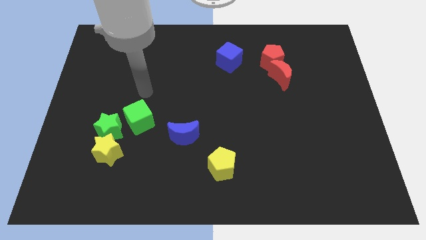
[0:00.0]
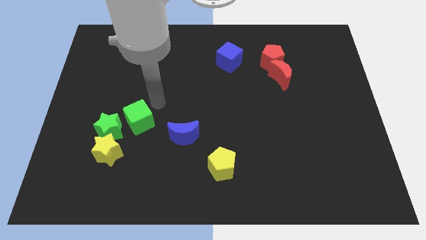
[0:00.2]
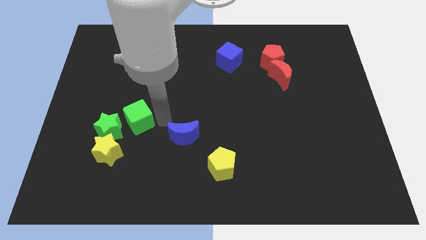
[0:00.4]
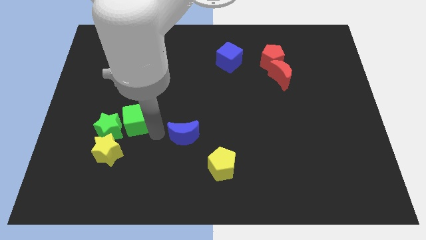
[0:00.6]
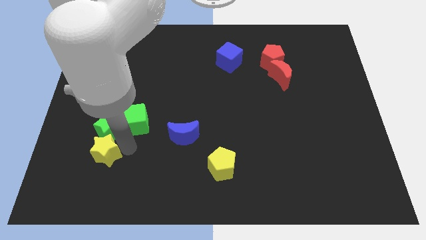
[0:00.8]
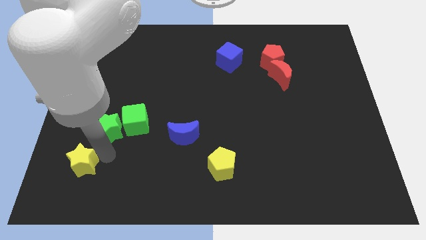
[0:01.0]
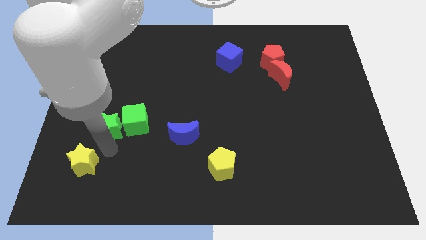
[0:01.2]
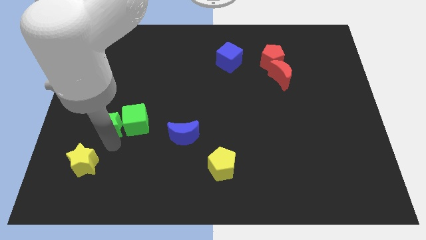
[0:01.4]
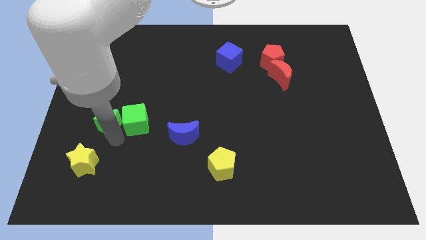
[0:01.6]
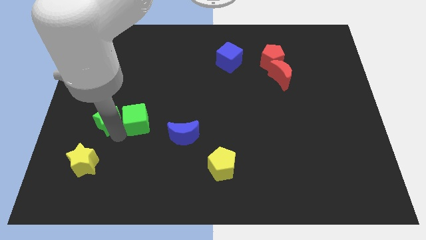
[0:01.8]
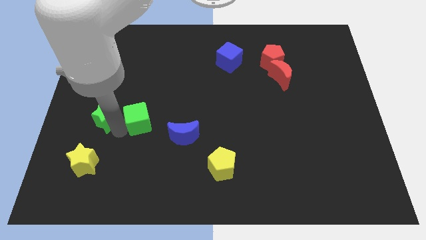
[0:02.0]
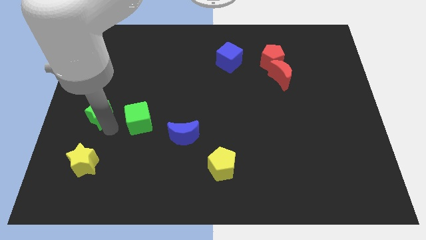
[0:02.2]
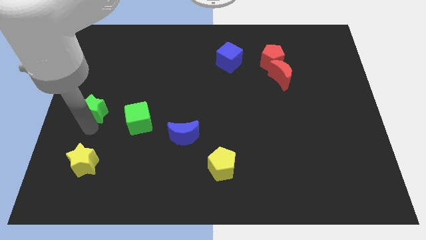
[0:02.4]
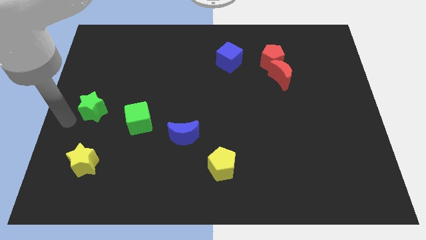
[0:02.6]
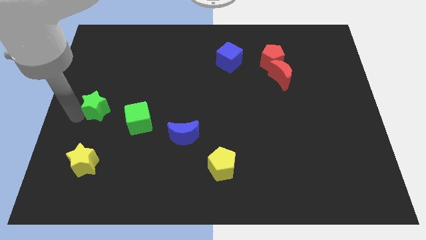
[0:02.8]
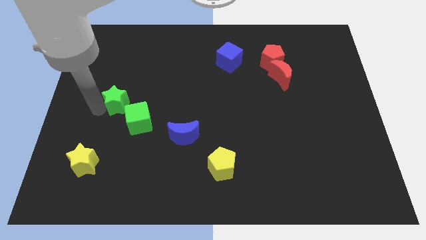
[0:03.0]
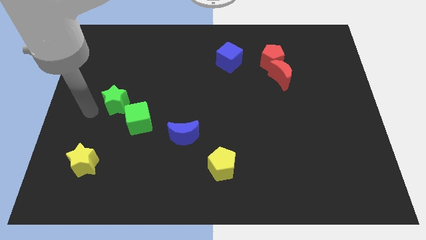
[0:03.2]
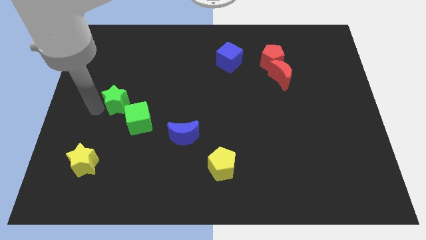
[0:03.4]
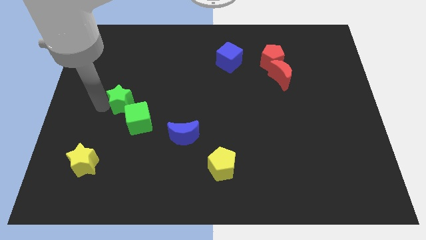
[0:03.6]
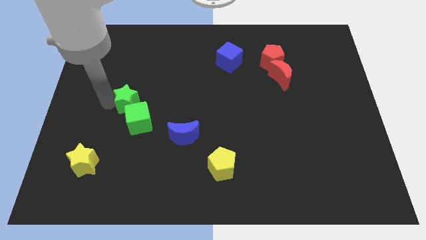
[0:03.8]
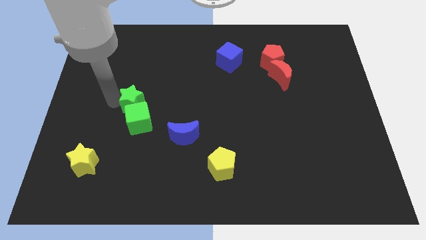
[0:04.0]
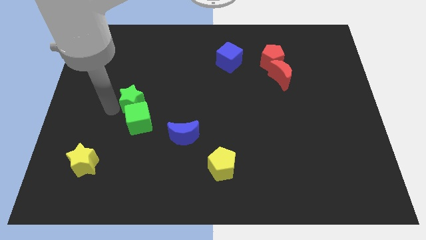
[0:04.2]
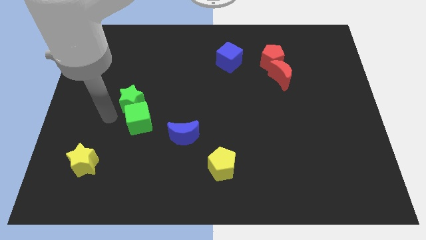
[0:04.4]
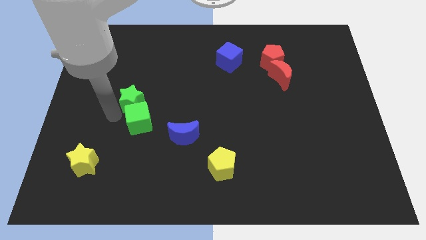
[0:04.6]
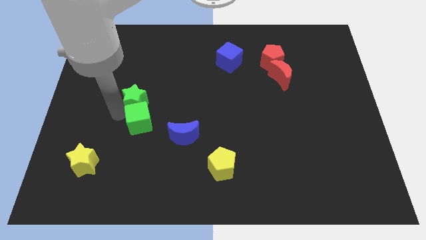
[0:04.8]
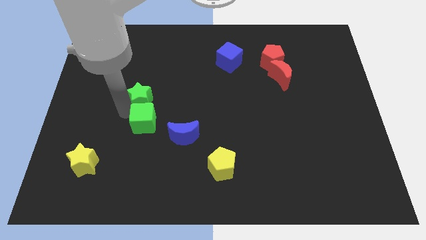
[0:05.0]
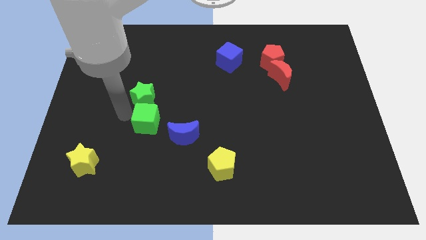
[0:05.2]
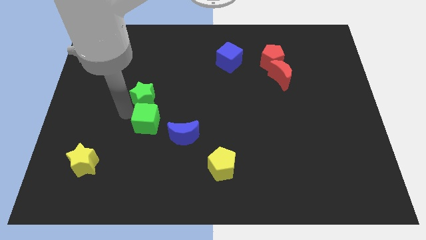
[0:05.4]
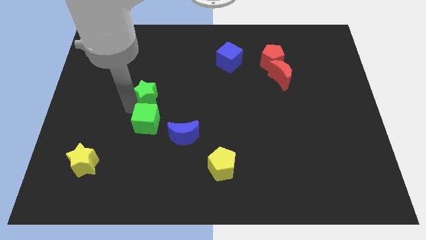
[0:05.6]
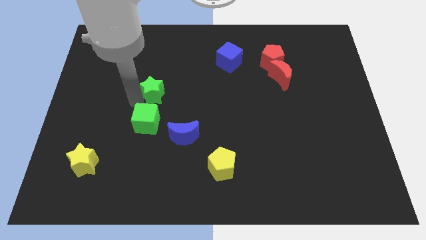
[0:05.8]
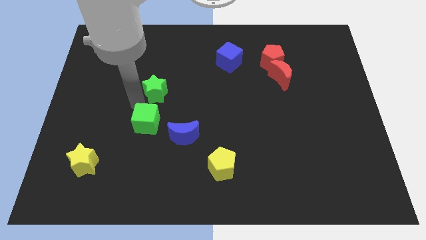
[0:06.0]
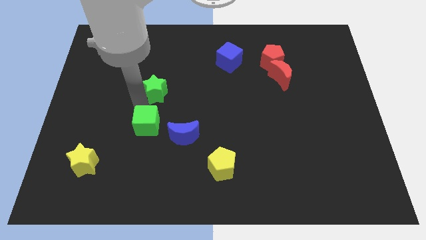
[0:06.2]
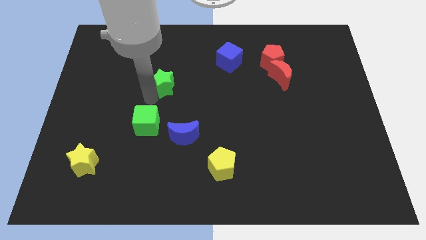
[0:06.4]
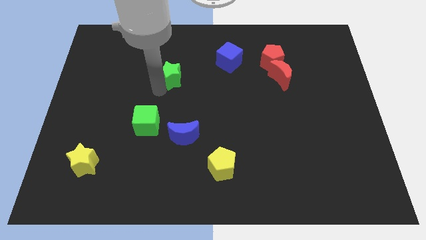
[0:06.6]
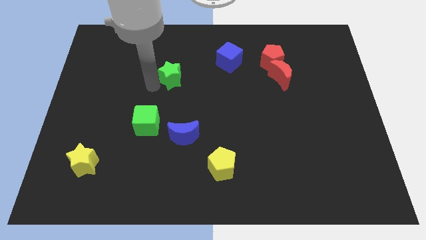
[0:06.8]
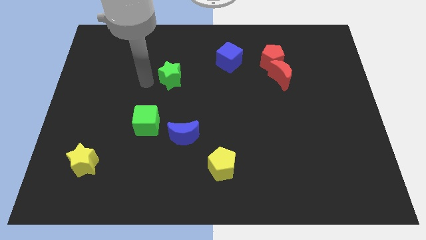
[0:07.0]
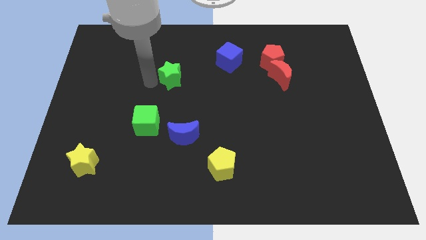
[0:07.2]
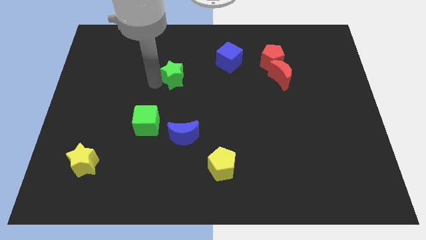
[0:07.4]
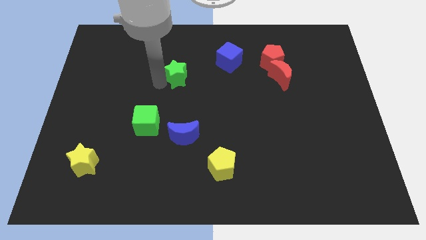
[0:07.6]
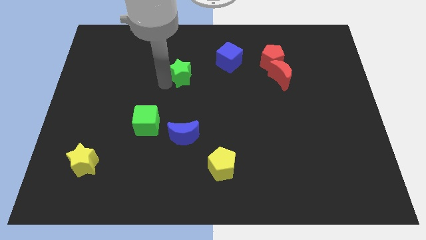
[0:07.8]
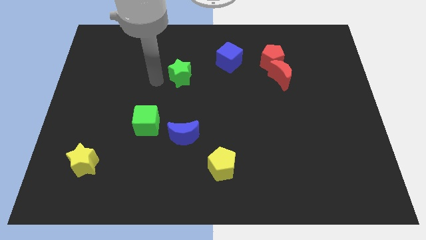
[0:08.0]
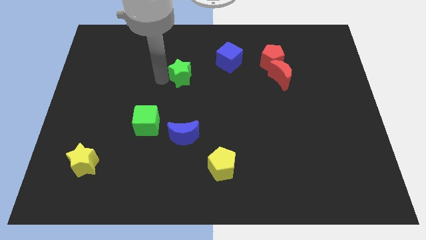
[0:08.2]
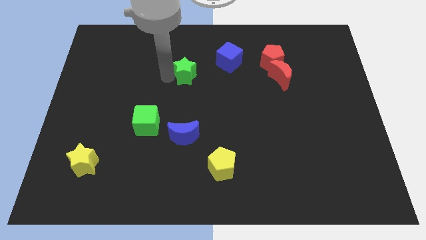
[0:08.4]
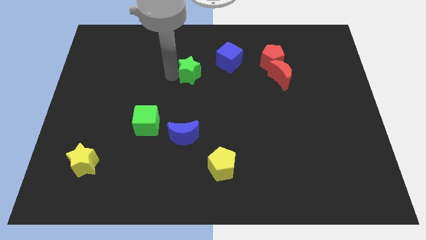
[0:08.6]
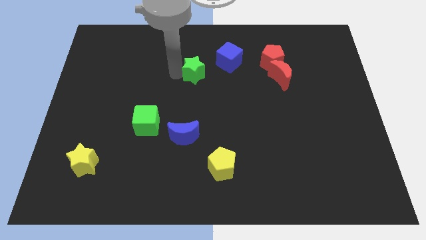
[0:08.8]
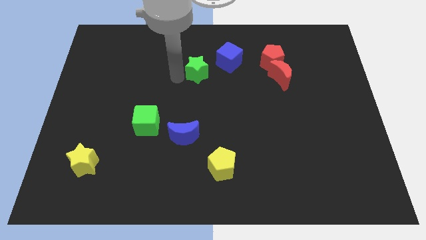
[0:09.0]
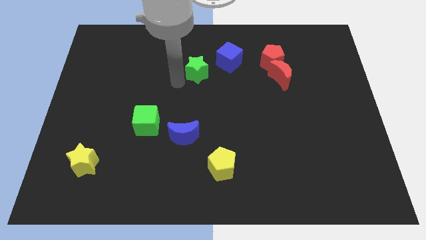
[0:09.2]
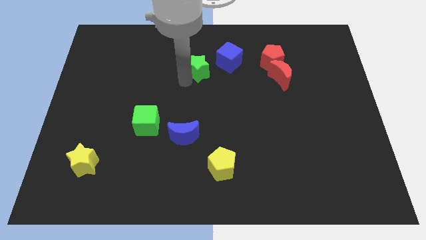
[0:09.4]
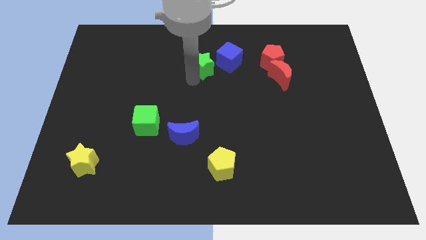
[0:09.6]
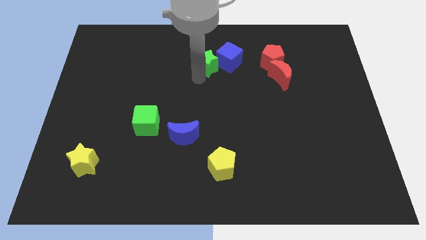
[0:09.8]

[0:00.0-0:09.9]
push the green star next to the blue cube

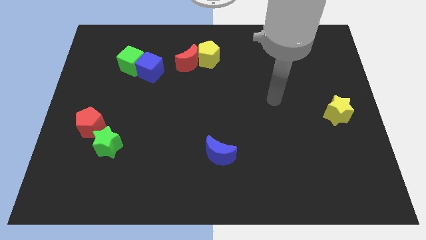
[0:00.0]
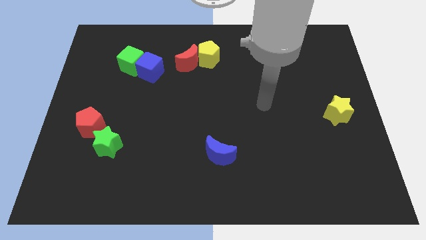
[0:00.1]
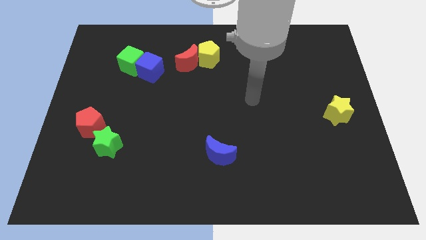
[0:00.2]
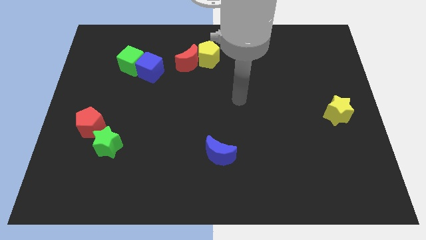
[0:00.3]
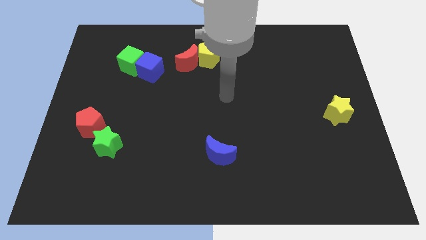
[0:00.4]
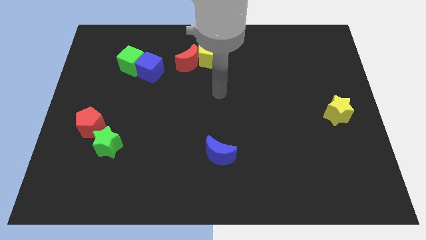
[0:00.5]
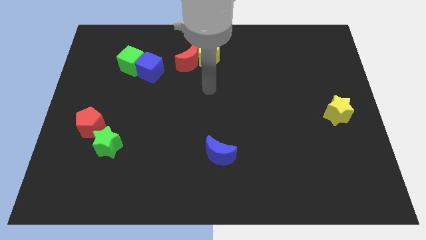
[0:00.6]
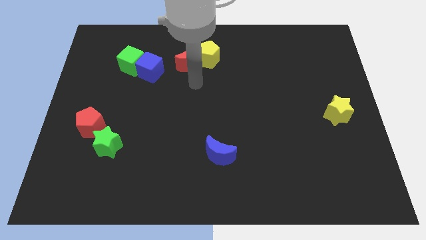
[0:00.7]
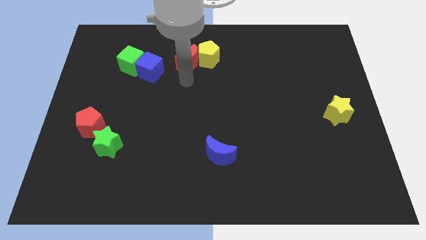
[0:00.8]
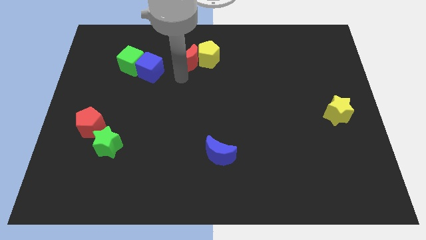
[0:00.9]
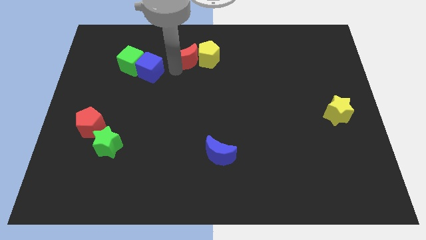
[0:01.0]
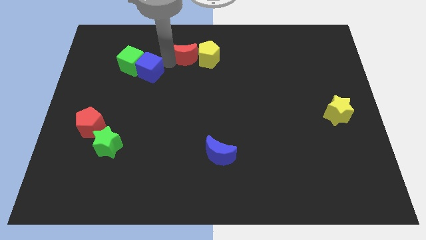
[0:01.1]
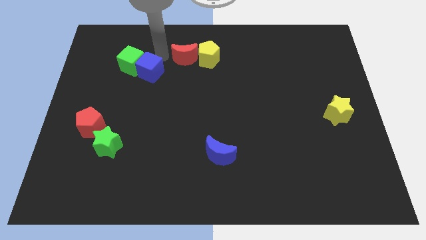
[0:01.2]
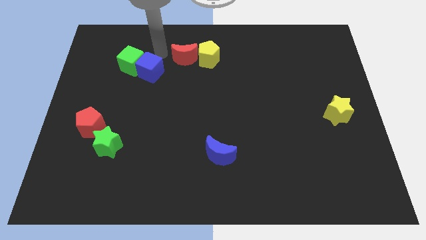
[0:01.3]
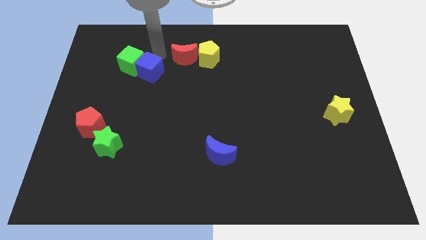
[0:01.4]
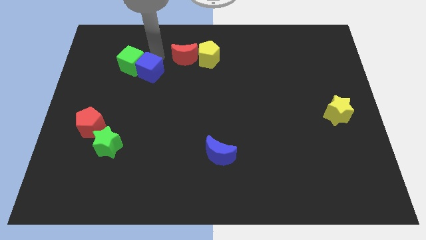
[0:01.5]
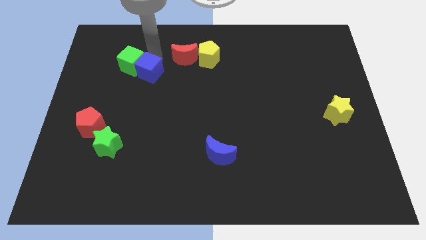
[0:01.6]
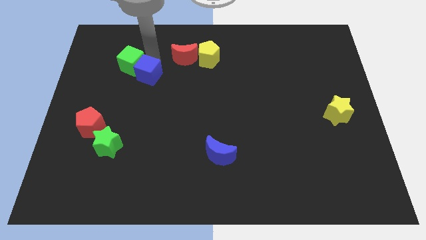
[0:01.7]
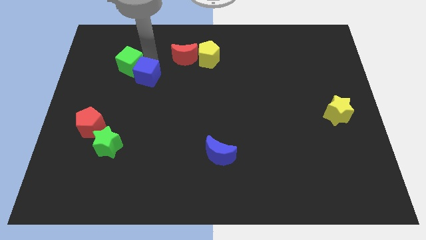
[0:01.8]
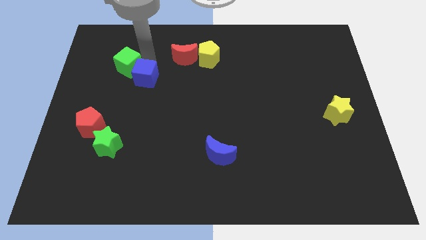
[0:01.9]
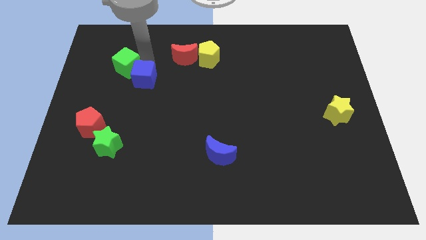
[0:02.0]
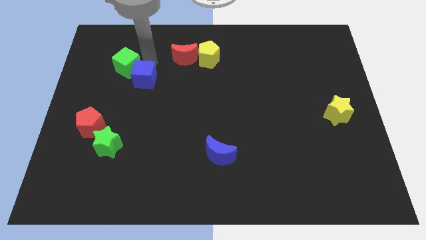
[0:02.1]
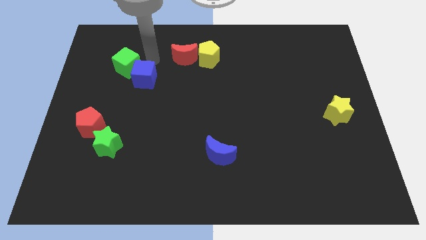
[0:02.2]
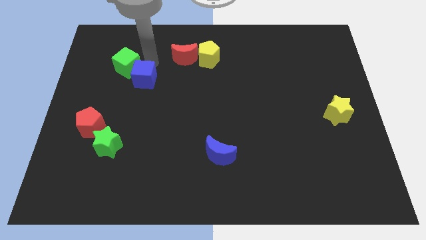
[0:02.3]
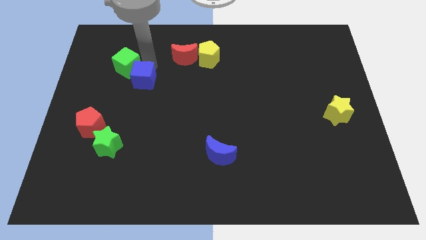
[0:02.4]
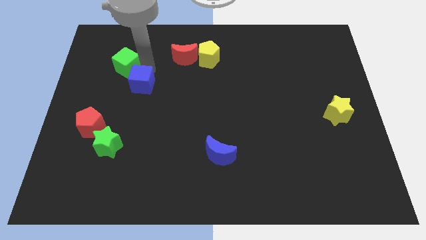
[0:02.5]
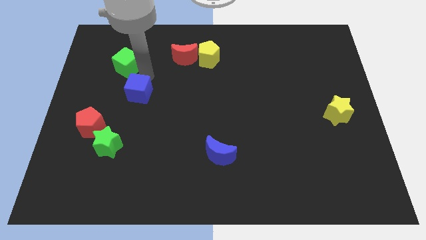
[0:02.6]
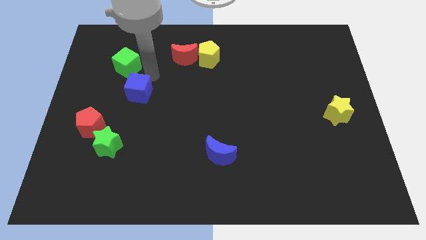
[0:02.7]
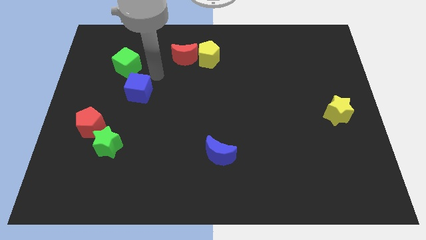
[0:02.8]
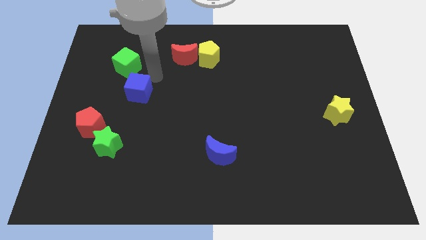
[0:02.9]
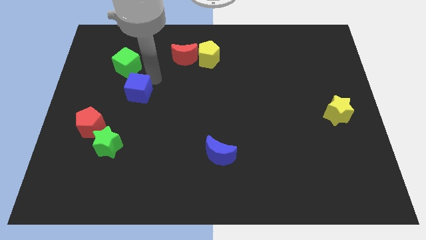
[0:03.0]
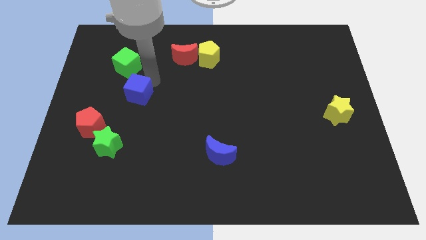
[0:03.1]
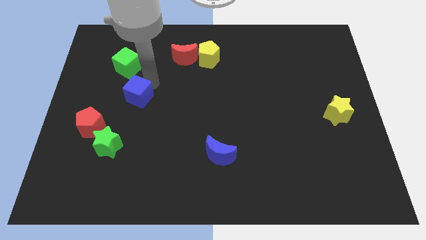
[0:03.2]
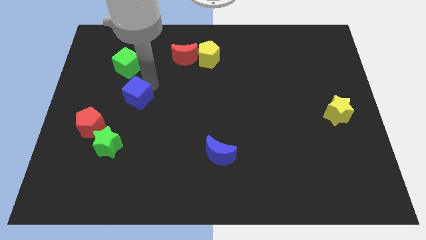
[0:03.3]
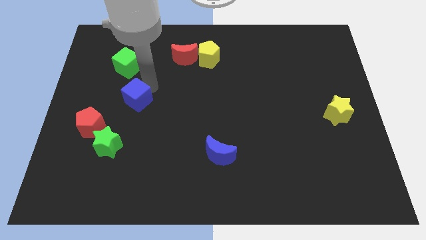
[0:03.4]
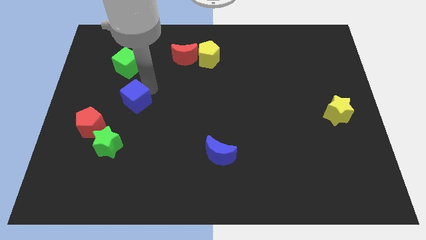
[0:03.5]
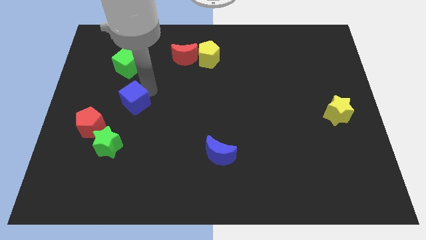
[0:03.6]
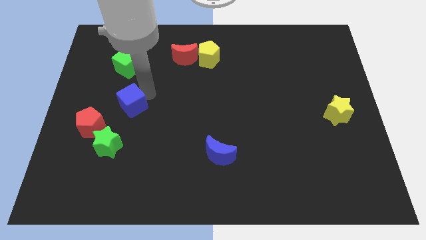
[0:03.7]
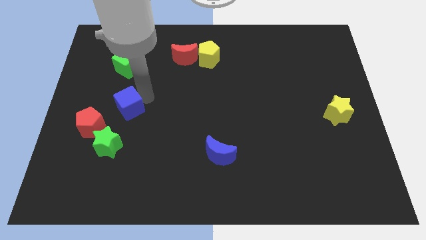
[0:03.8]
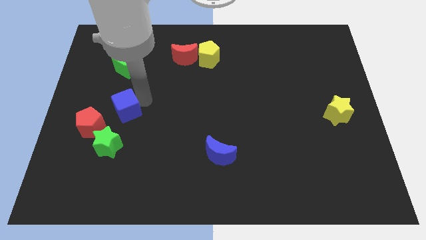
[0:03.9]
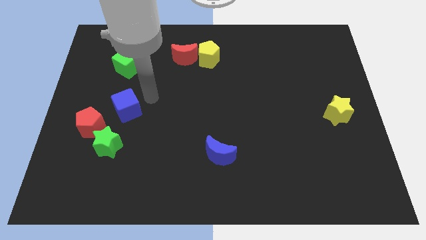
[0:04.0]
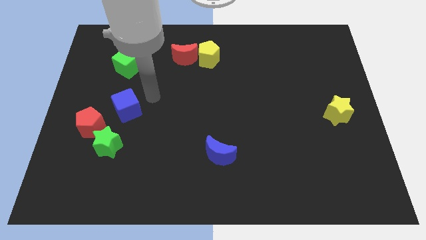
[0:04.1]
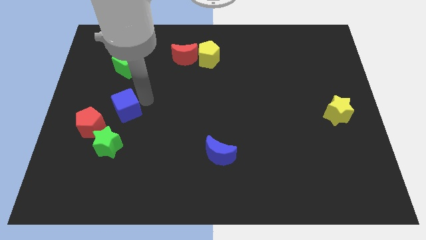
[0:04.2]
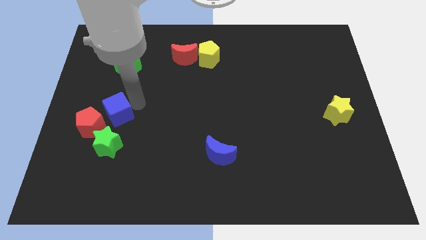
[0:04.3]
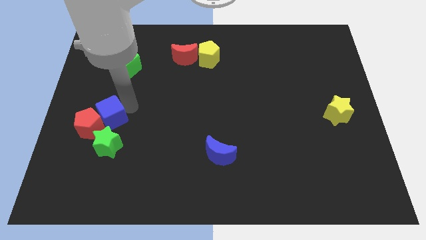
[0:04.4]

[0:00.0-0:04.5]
push the blue cube to the red pentagon
